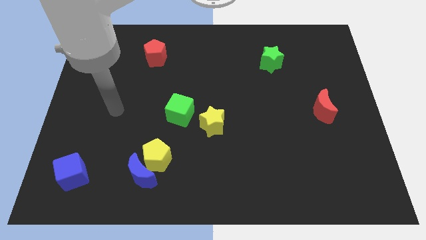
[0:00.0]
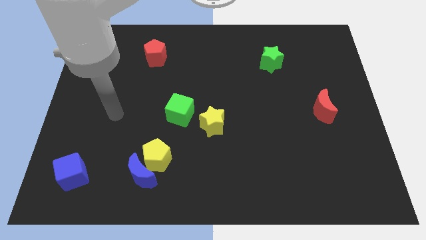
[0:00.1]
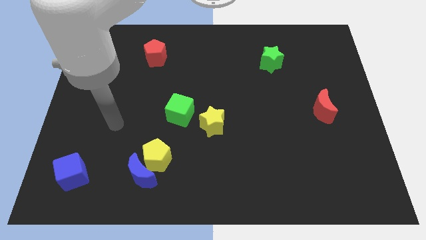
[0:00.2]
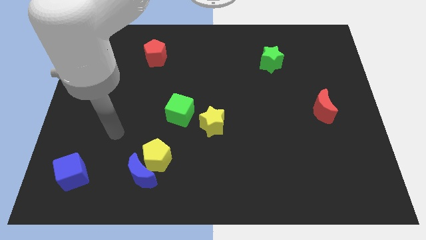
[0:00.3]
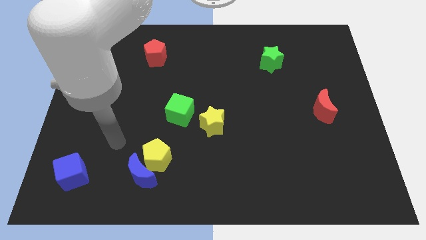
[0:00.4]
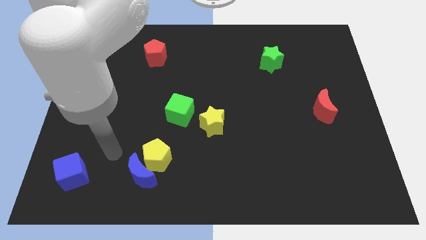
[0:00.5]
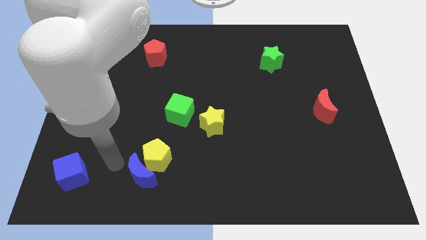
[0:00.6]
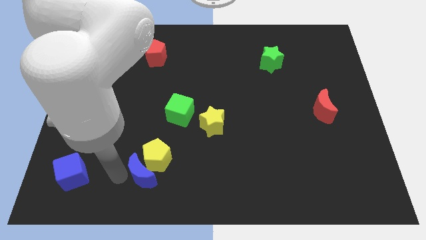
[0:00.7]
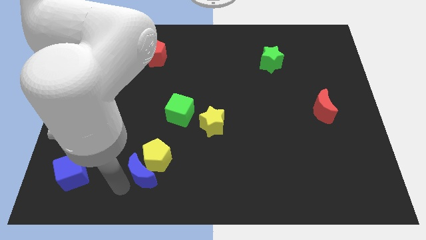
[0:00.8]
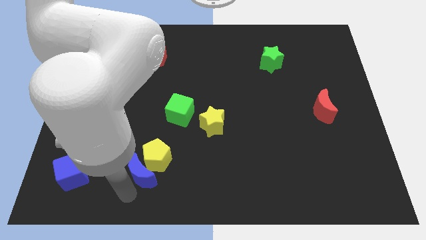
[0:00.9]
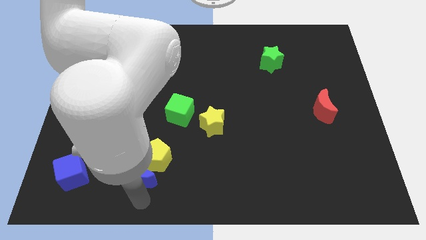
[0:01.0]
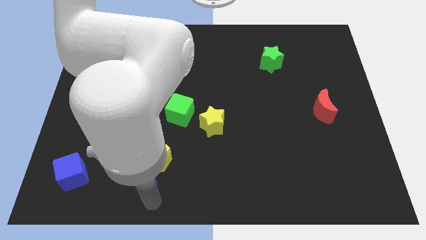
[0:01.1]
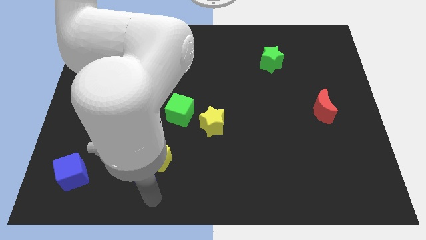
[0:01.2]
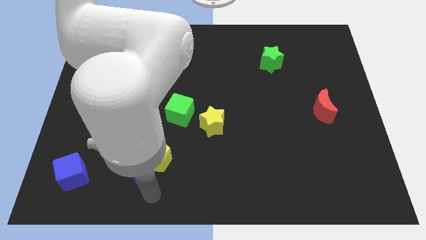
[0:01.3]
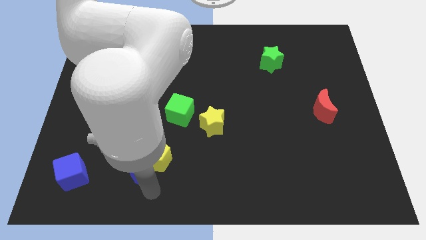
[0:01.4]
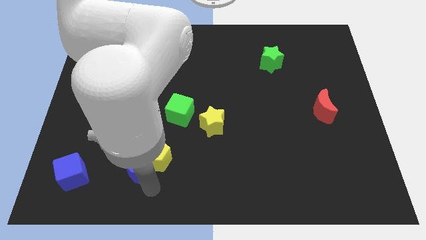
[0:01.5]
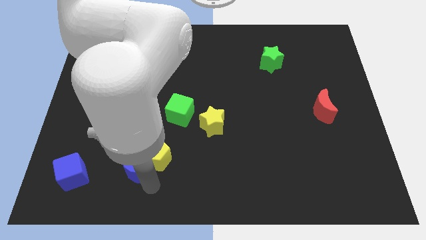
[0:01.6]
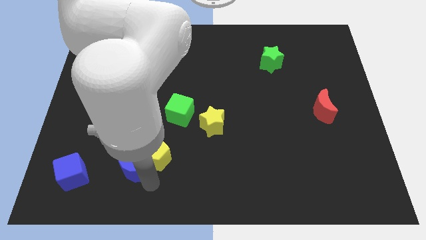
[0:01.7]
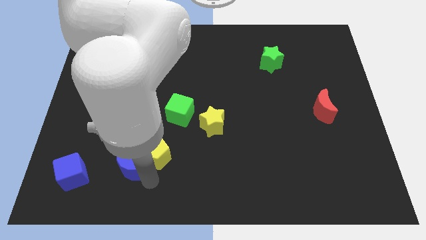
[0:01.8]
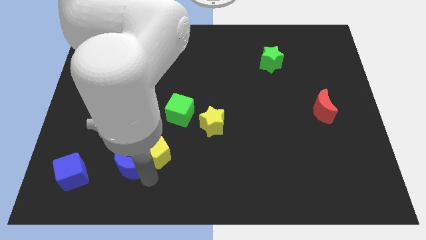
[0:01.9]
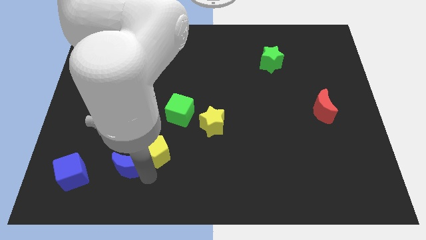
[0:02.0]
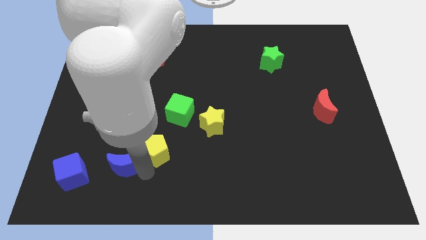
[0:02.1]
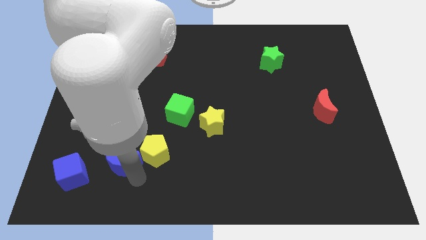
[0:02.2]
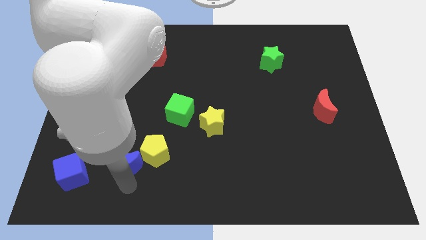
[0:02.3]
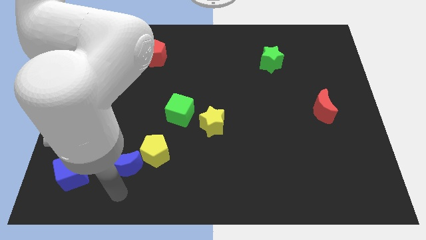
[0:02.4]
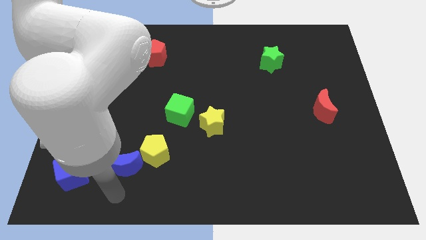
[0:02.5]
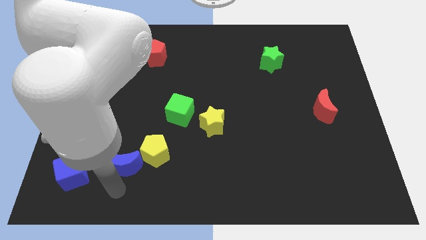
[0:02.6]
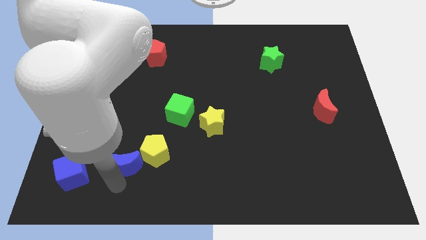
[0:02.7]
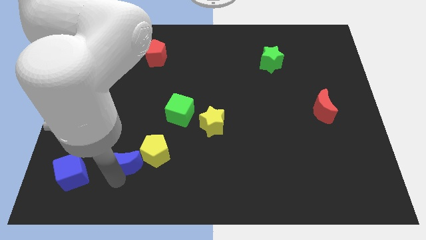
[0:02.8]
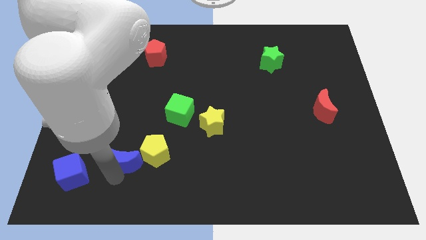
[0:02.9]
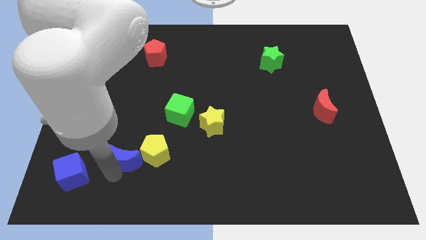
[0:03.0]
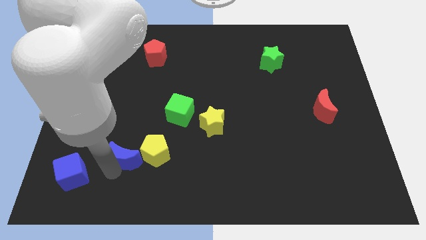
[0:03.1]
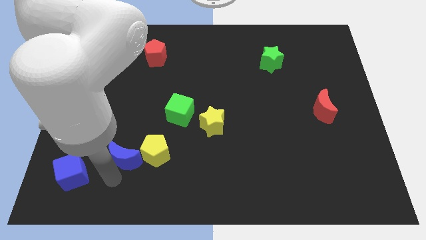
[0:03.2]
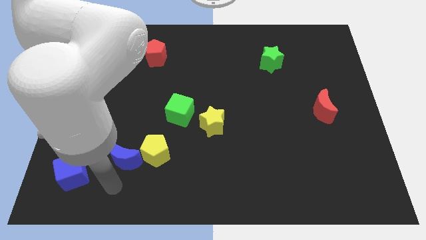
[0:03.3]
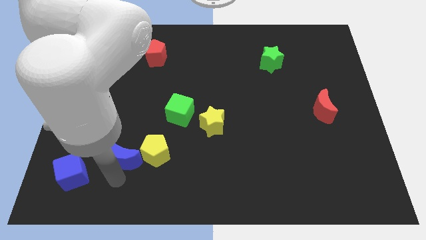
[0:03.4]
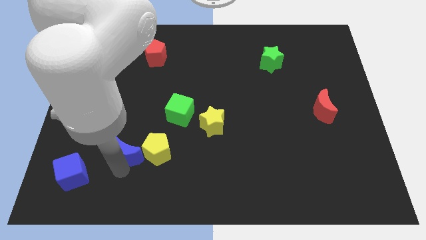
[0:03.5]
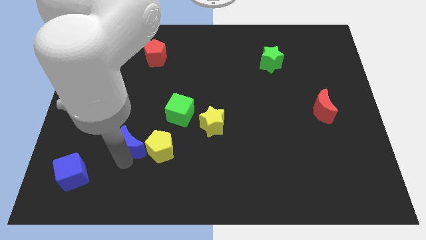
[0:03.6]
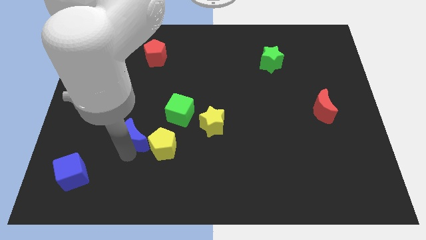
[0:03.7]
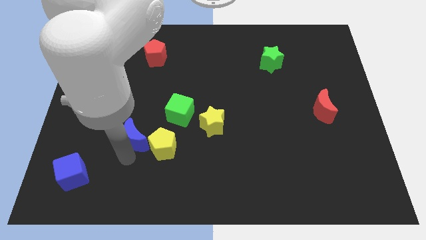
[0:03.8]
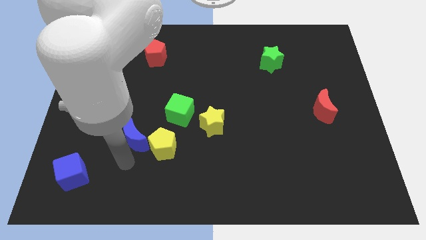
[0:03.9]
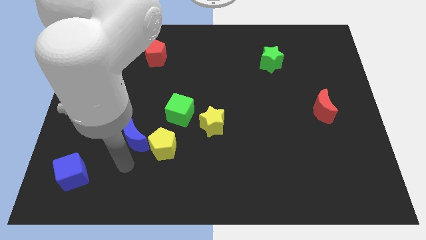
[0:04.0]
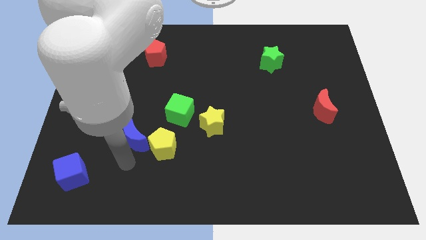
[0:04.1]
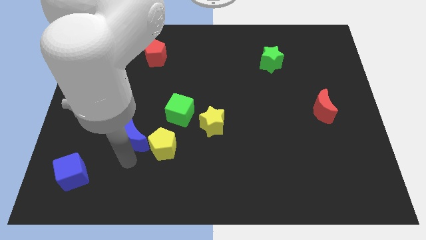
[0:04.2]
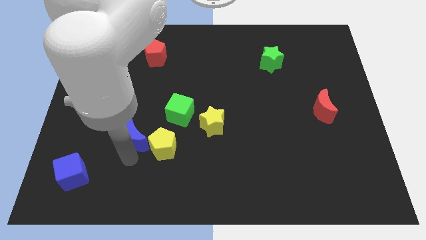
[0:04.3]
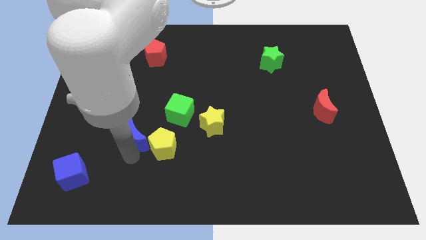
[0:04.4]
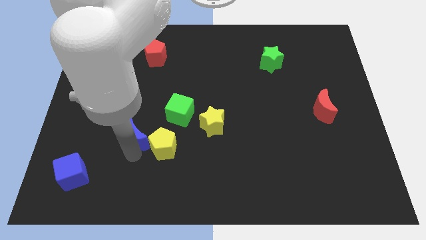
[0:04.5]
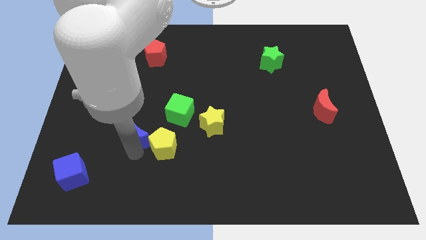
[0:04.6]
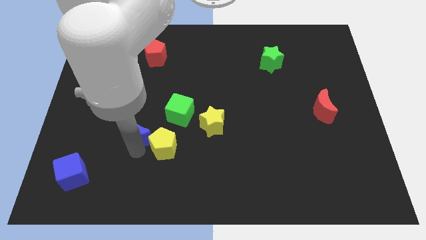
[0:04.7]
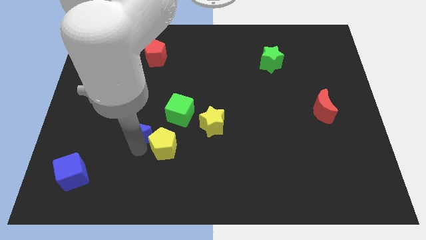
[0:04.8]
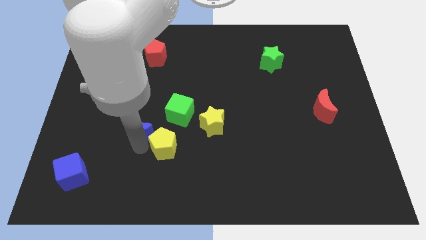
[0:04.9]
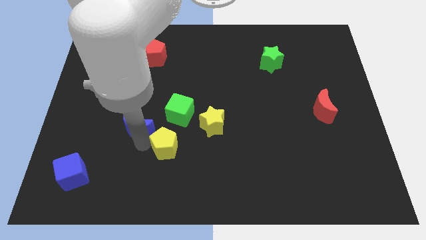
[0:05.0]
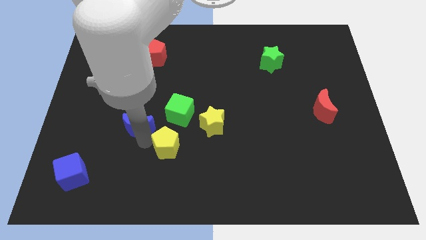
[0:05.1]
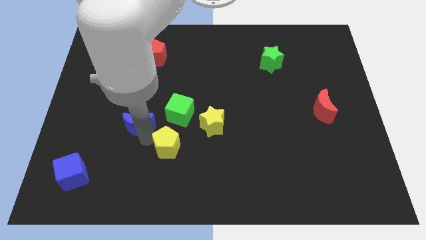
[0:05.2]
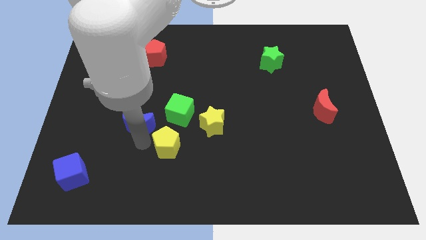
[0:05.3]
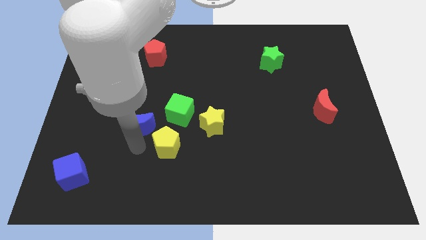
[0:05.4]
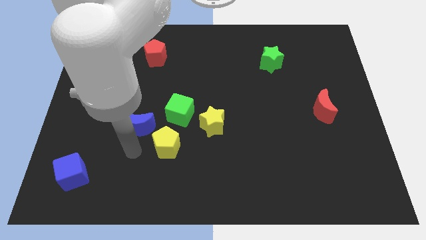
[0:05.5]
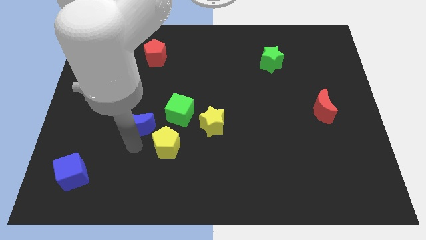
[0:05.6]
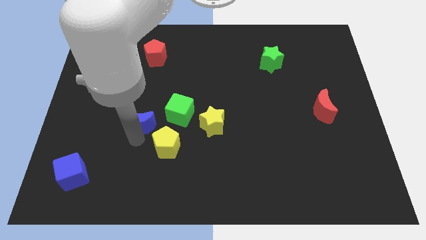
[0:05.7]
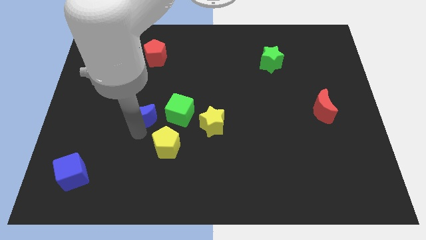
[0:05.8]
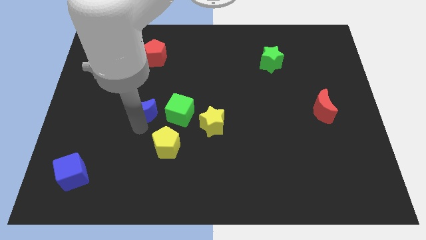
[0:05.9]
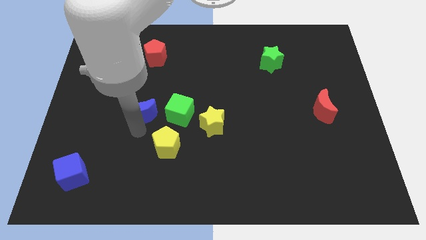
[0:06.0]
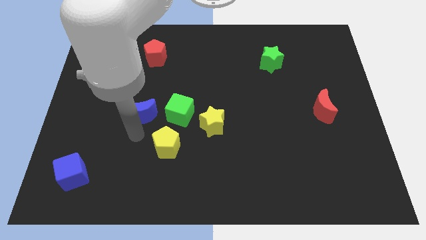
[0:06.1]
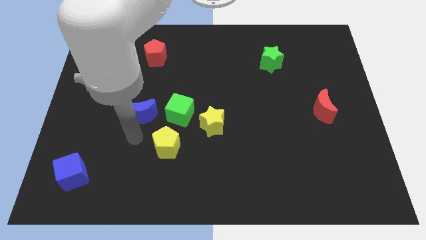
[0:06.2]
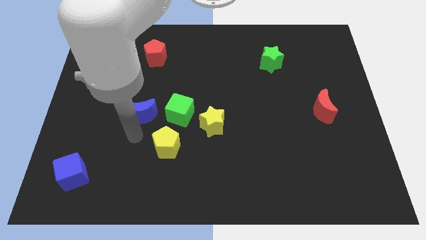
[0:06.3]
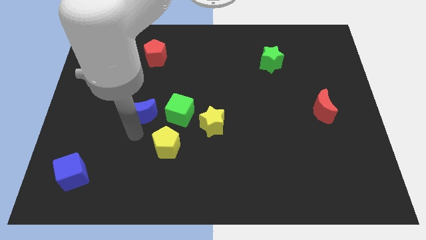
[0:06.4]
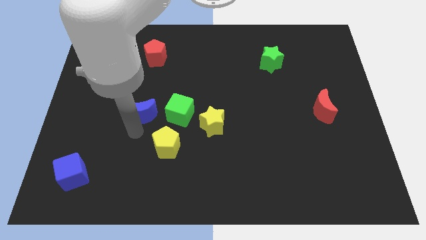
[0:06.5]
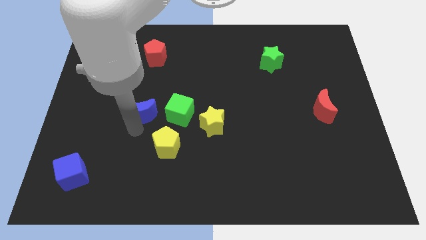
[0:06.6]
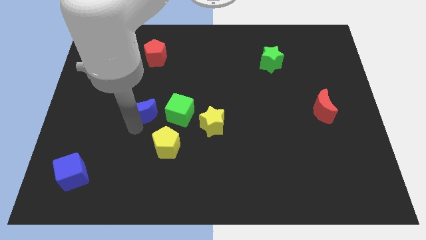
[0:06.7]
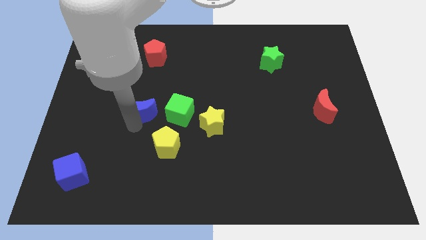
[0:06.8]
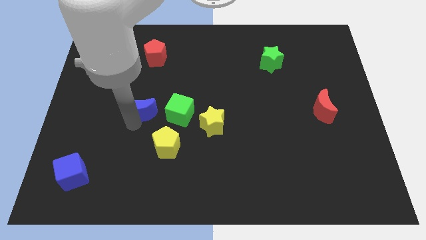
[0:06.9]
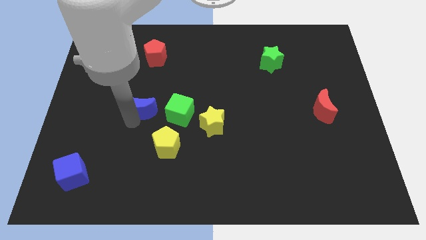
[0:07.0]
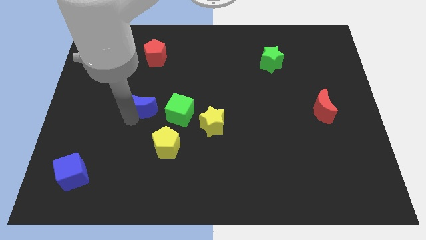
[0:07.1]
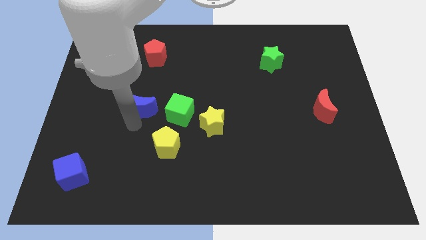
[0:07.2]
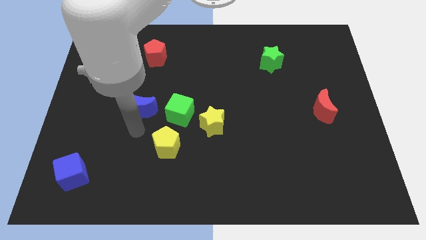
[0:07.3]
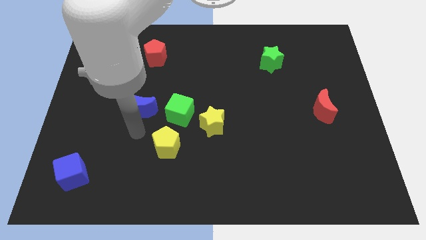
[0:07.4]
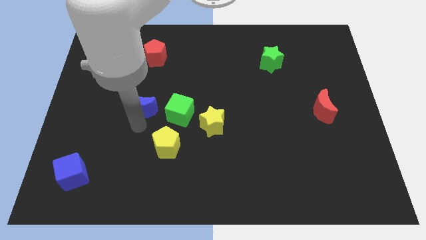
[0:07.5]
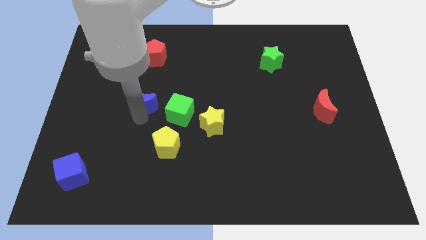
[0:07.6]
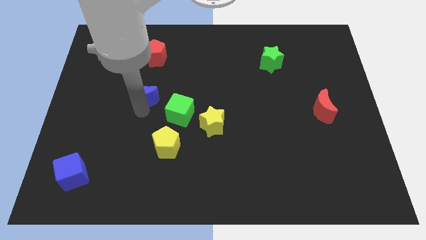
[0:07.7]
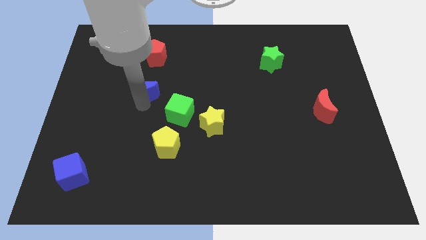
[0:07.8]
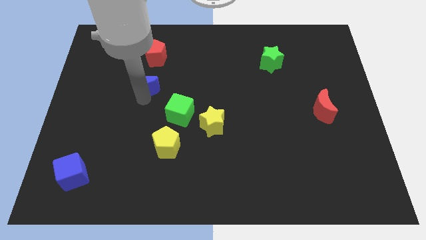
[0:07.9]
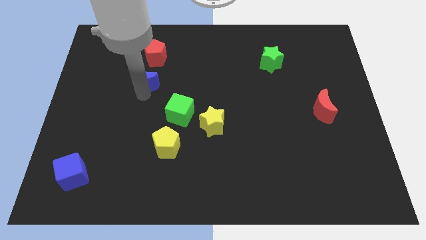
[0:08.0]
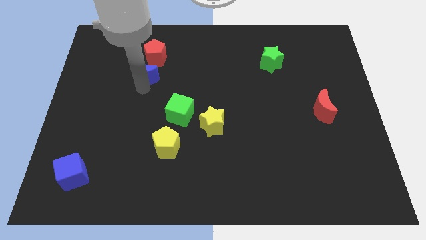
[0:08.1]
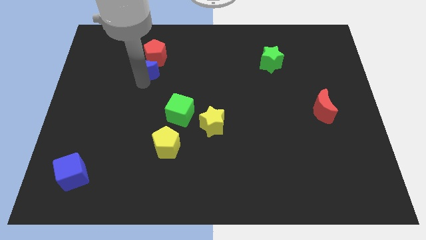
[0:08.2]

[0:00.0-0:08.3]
slide the blue moon to the red pentagon
